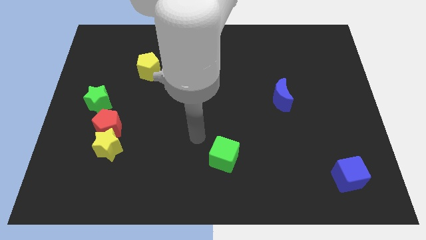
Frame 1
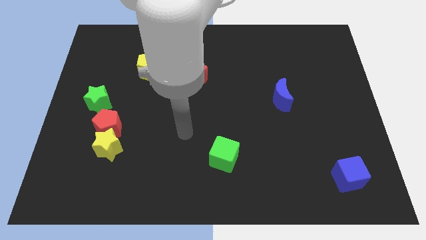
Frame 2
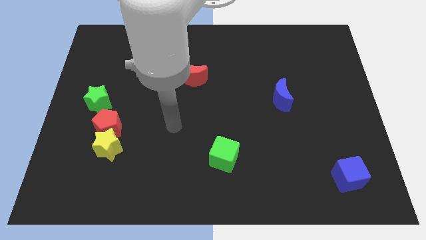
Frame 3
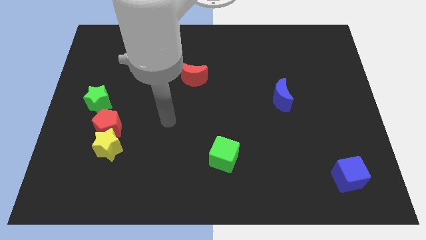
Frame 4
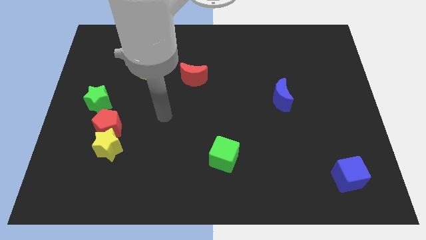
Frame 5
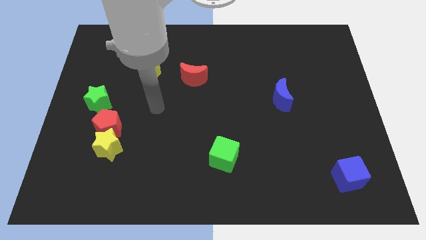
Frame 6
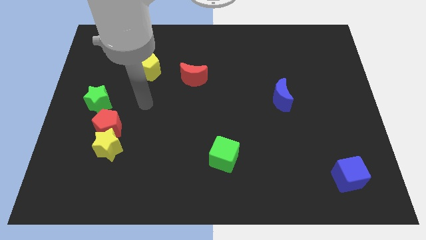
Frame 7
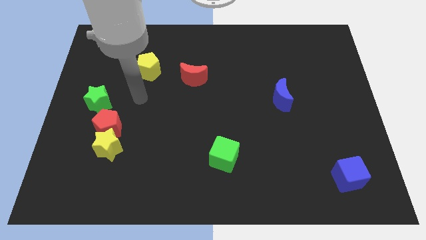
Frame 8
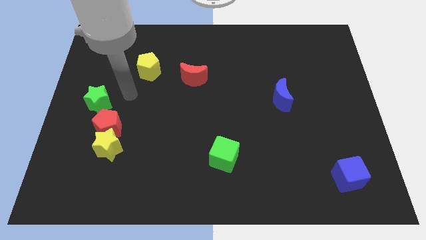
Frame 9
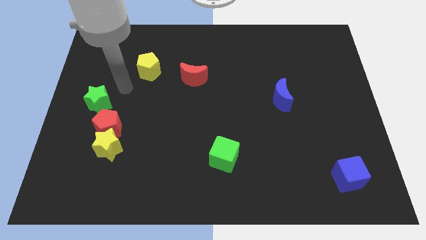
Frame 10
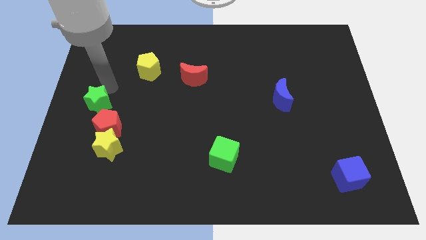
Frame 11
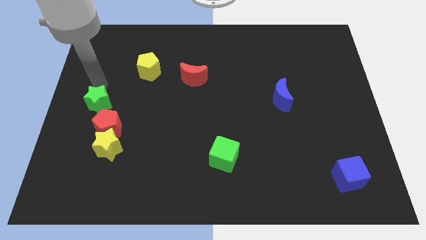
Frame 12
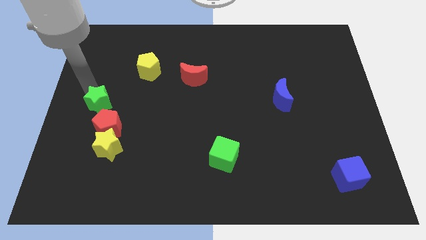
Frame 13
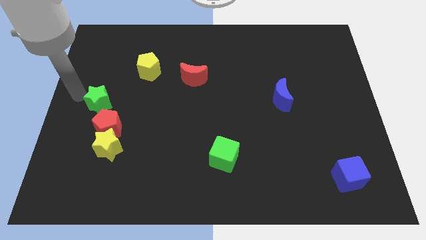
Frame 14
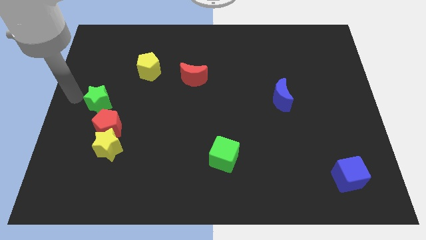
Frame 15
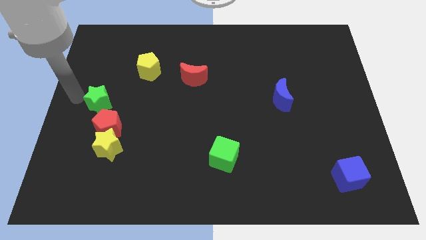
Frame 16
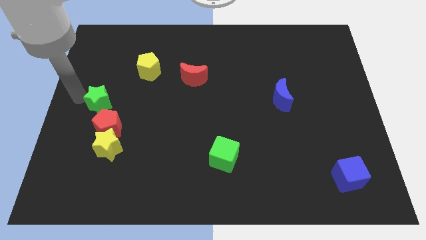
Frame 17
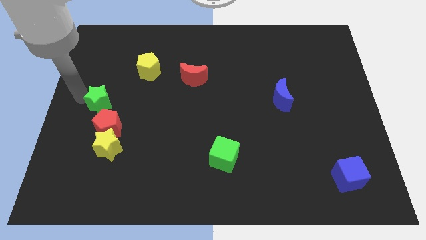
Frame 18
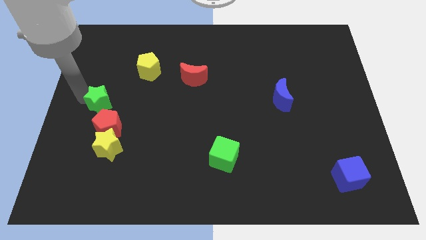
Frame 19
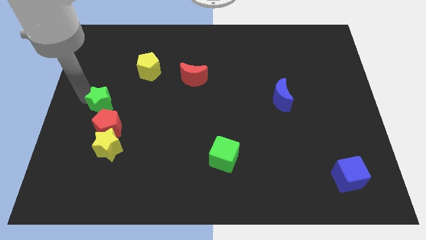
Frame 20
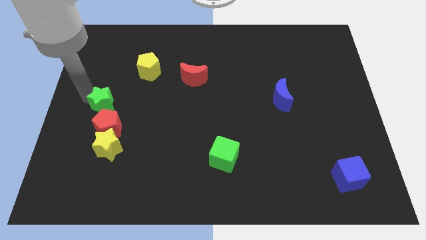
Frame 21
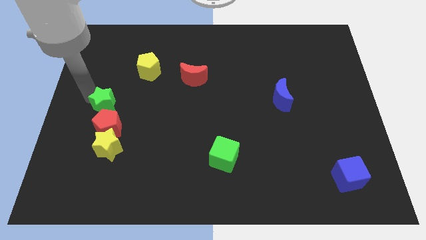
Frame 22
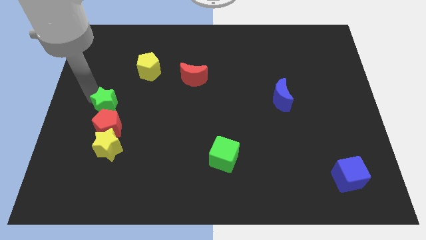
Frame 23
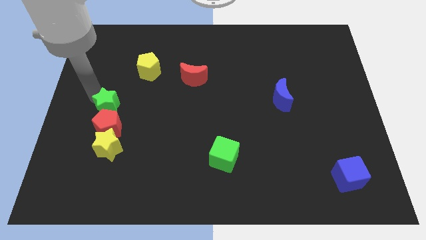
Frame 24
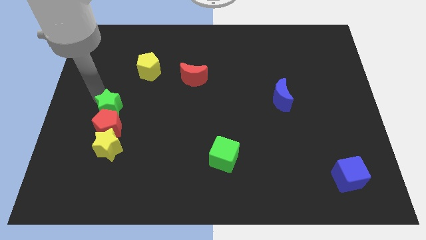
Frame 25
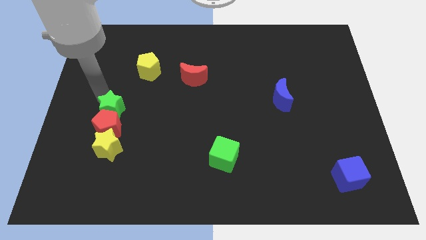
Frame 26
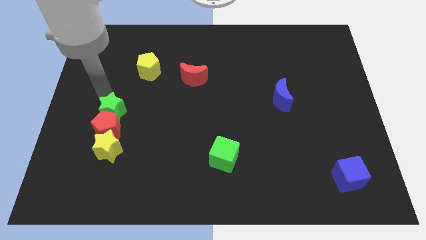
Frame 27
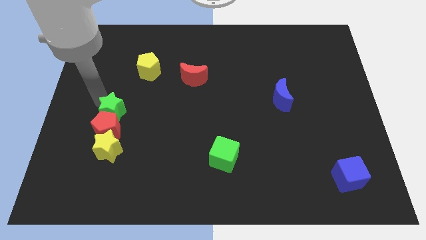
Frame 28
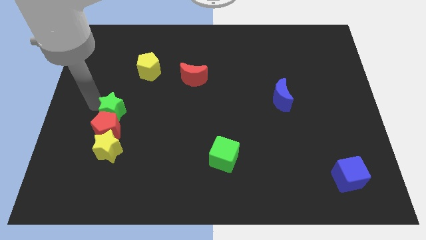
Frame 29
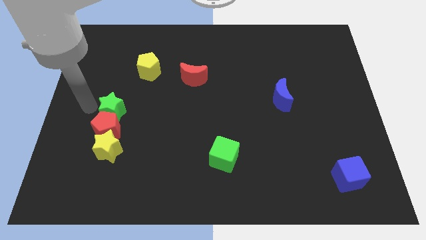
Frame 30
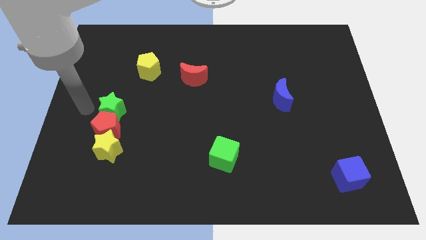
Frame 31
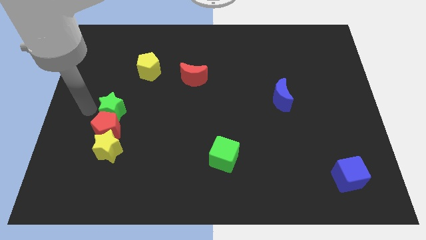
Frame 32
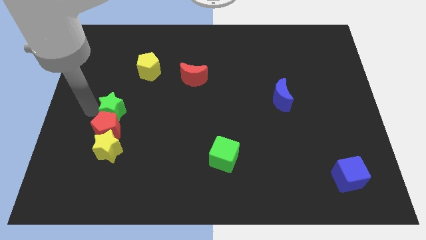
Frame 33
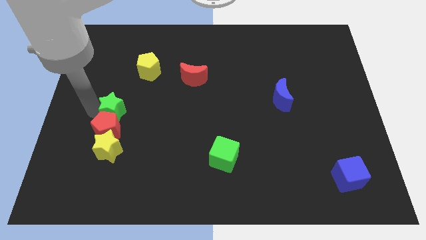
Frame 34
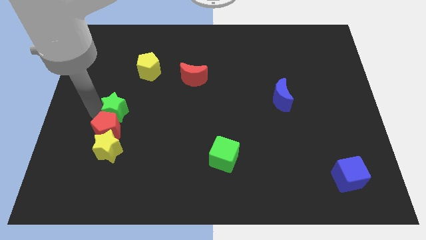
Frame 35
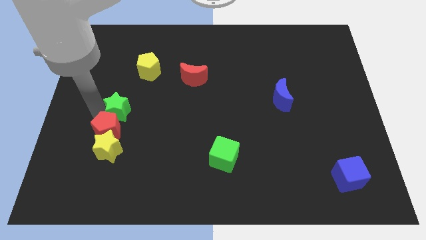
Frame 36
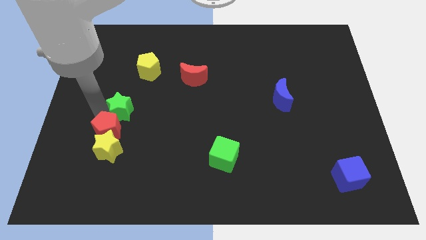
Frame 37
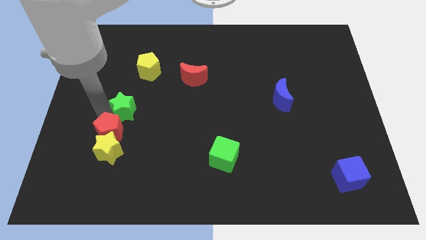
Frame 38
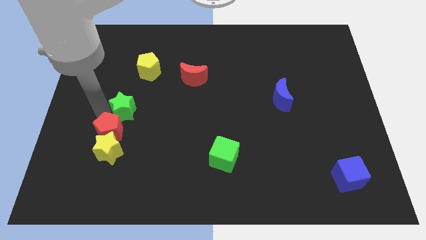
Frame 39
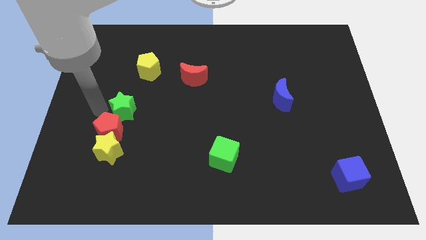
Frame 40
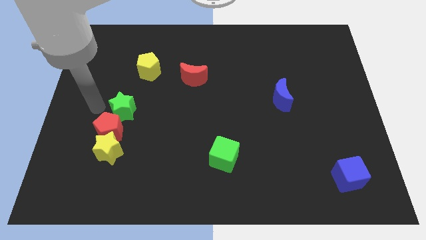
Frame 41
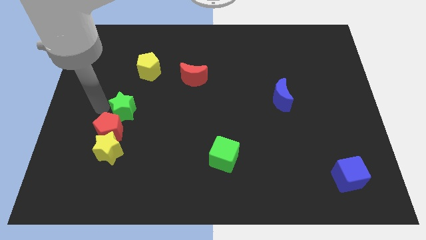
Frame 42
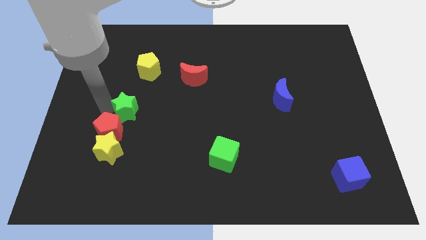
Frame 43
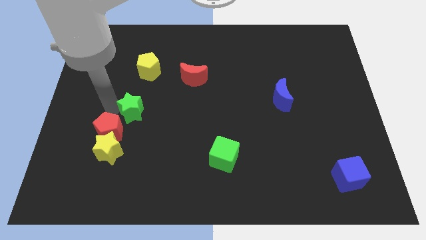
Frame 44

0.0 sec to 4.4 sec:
move the green star down and right diagonally somewhat

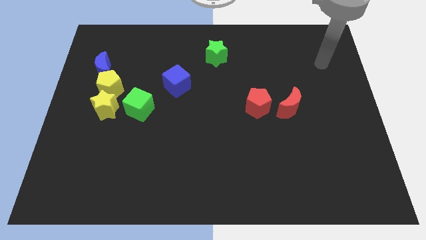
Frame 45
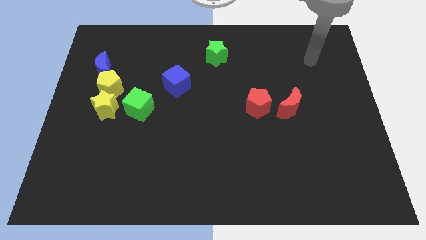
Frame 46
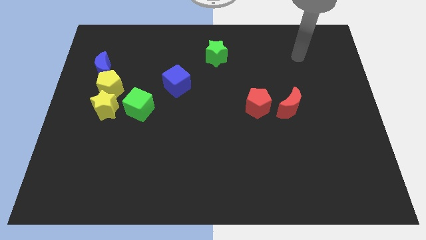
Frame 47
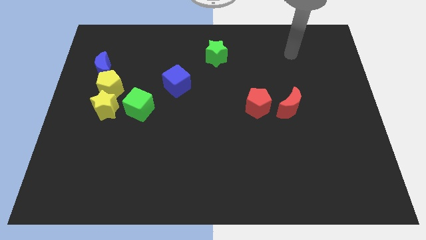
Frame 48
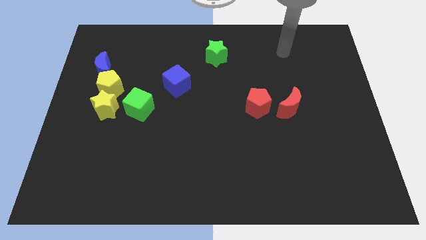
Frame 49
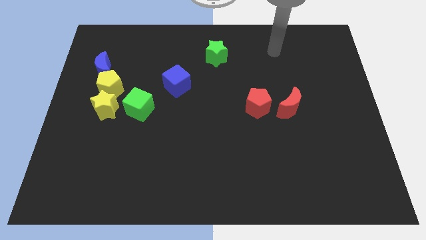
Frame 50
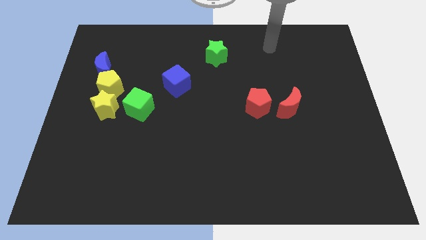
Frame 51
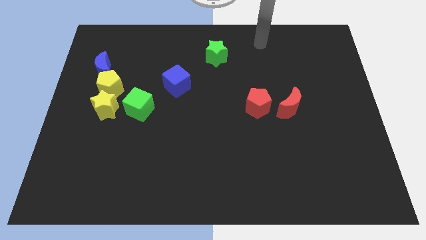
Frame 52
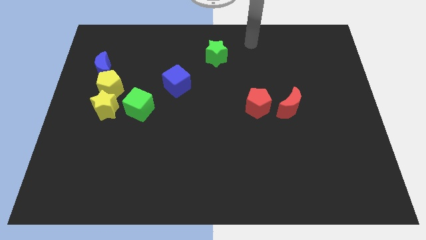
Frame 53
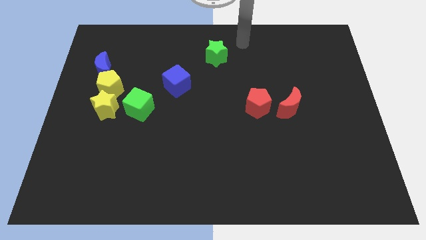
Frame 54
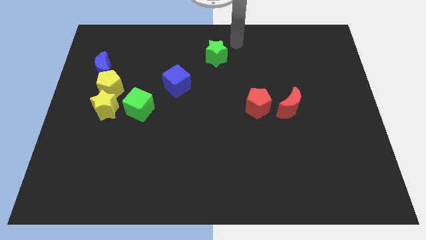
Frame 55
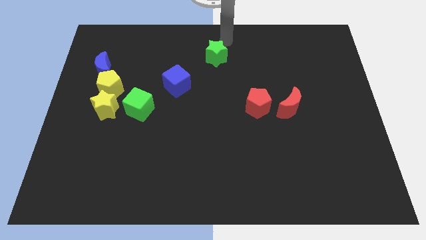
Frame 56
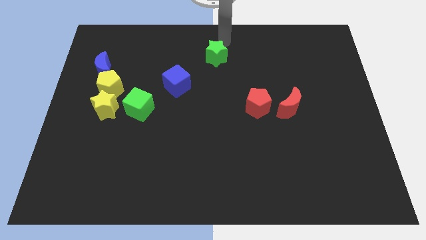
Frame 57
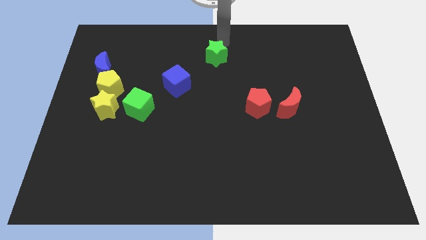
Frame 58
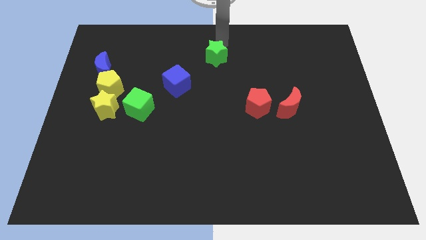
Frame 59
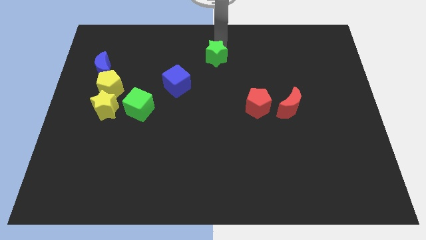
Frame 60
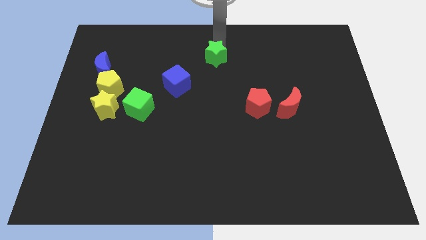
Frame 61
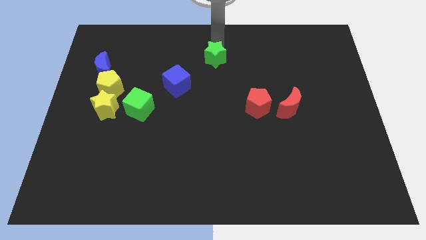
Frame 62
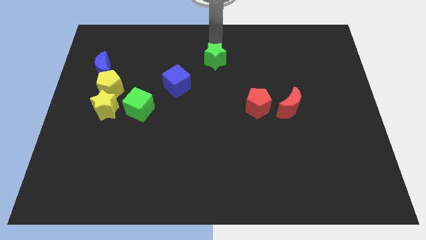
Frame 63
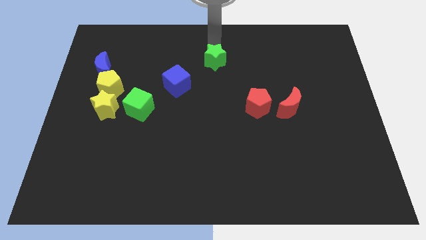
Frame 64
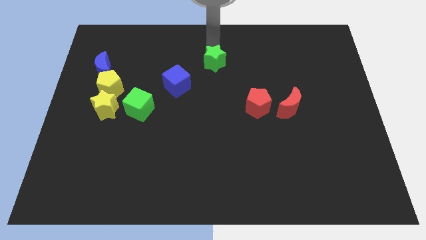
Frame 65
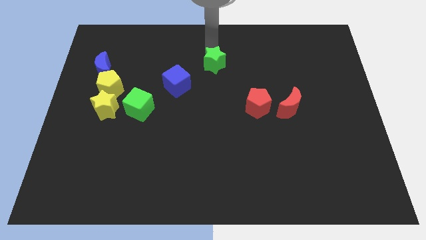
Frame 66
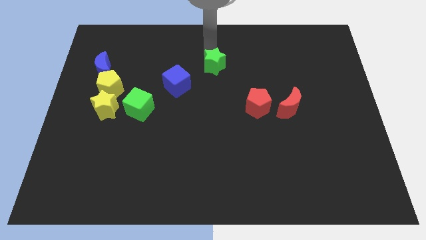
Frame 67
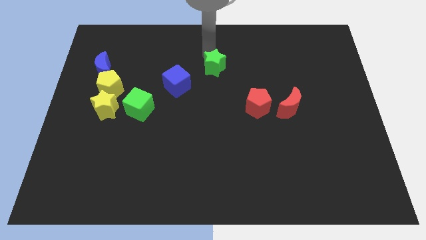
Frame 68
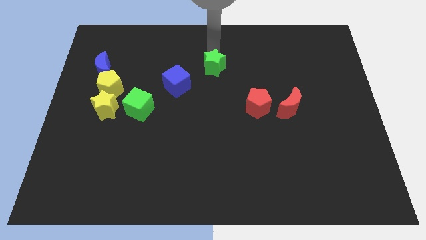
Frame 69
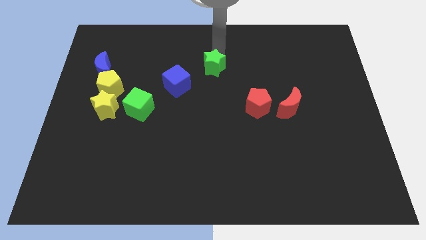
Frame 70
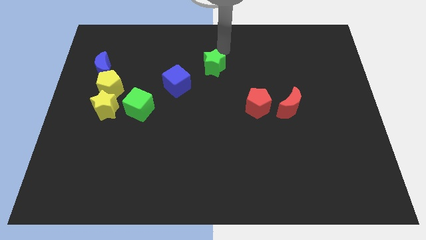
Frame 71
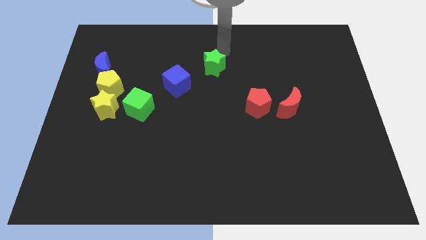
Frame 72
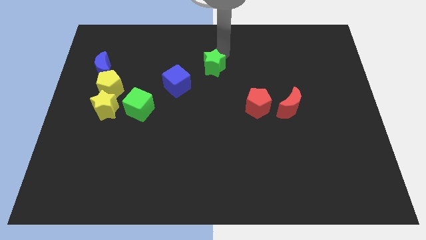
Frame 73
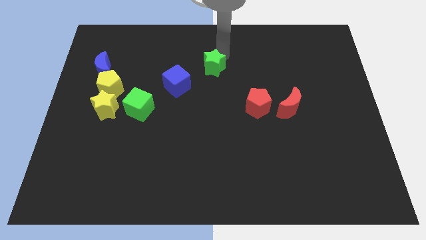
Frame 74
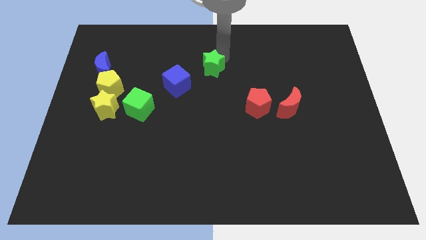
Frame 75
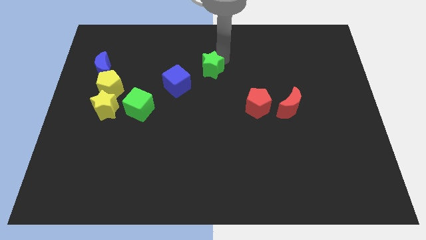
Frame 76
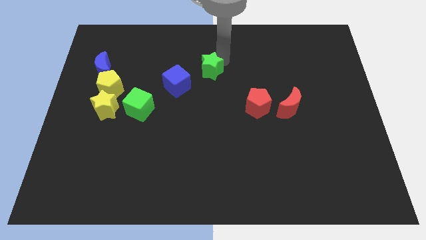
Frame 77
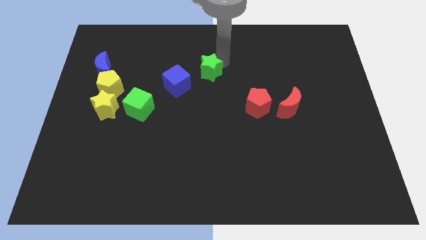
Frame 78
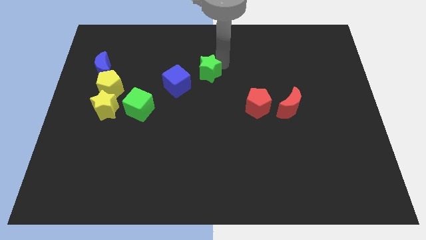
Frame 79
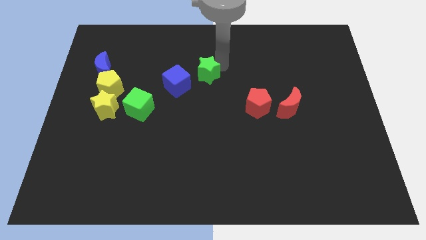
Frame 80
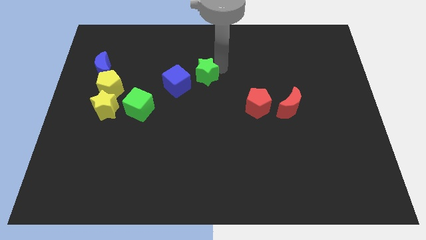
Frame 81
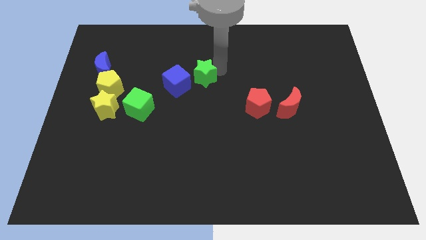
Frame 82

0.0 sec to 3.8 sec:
slightly push the green star down and left diagonally
